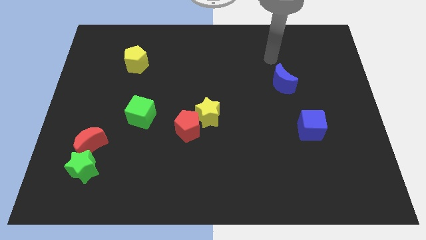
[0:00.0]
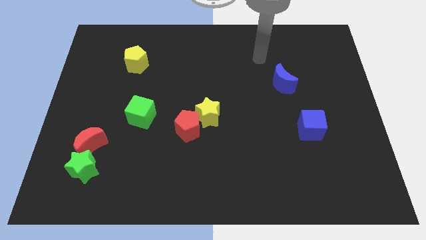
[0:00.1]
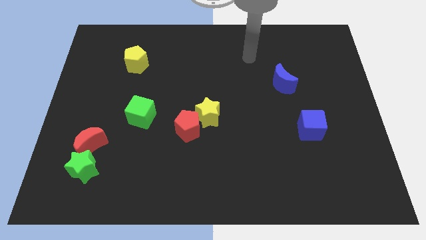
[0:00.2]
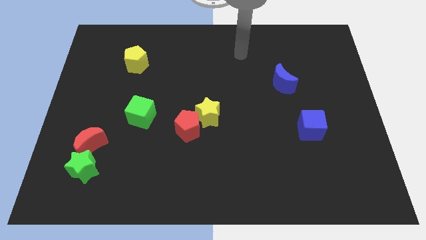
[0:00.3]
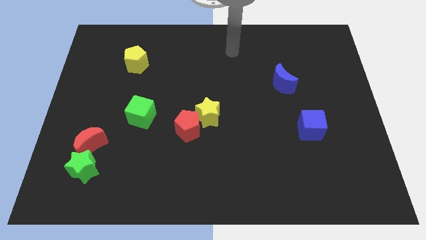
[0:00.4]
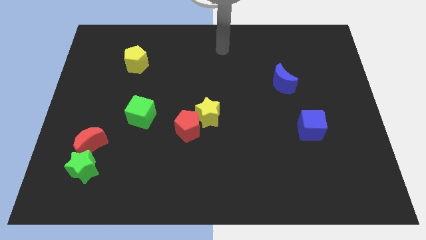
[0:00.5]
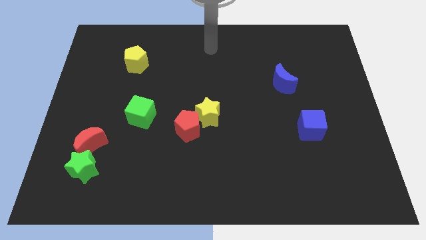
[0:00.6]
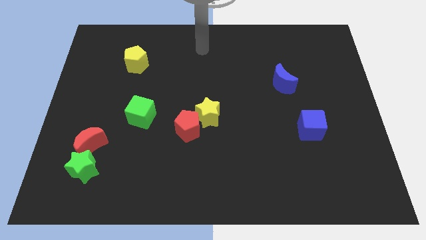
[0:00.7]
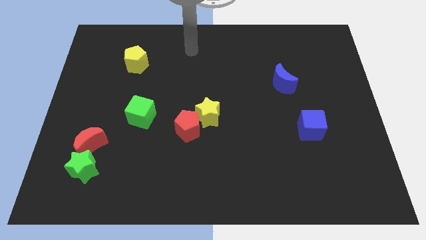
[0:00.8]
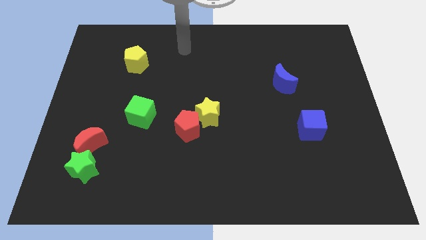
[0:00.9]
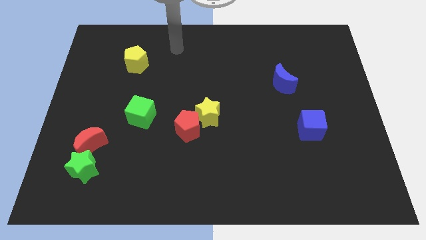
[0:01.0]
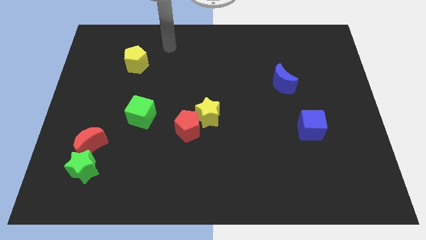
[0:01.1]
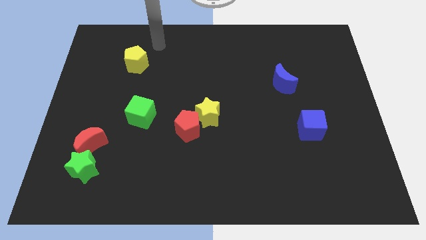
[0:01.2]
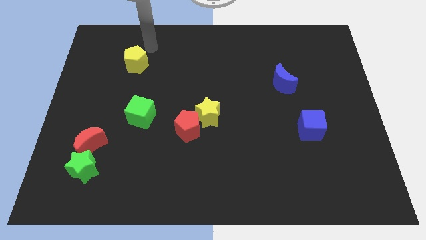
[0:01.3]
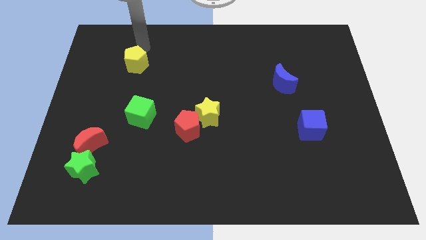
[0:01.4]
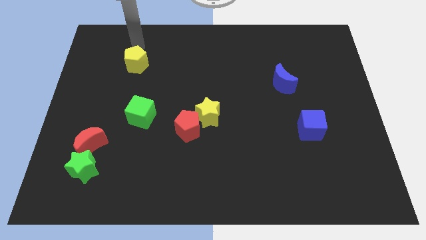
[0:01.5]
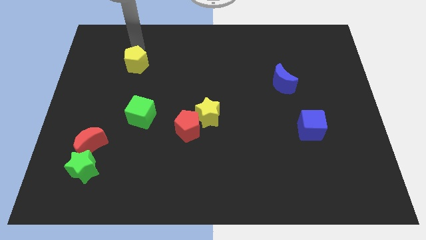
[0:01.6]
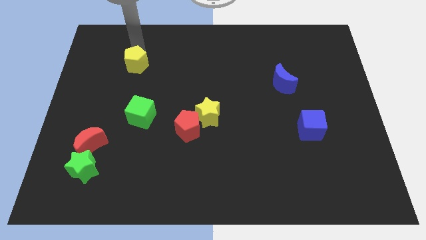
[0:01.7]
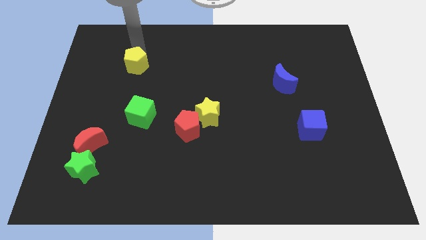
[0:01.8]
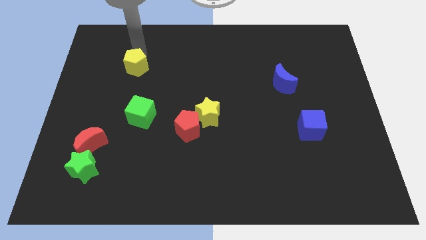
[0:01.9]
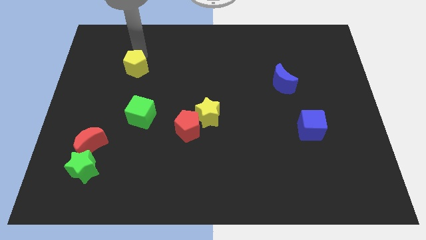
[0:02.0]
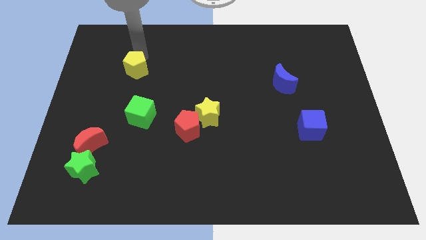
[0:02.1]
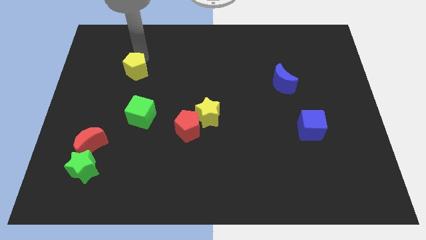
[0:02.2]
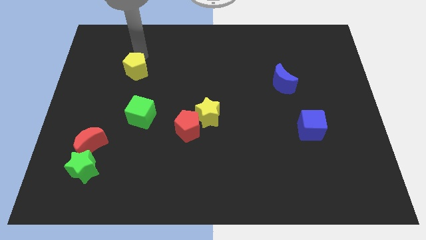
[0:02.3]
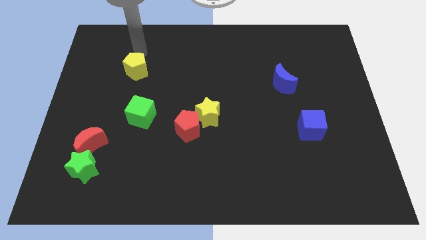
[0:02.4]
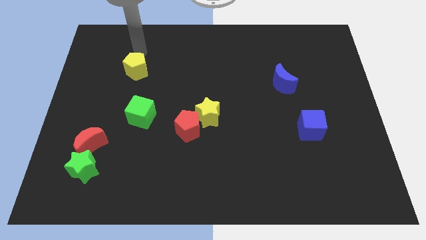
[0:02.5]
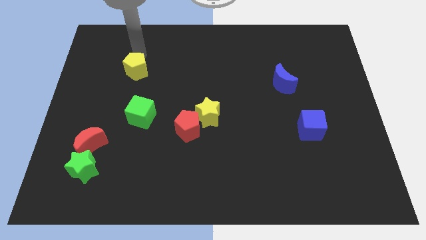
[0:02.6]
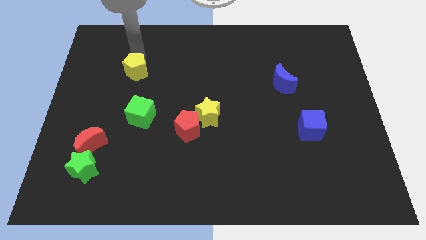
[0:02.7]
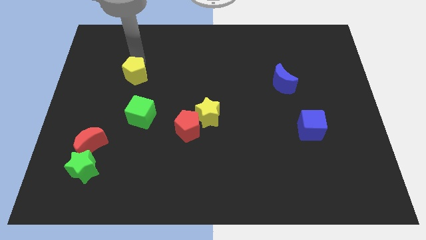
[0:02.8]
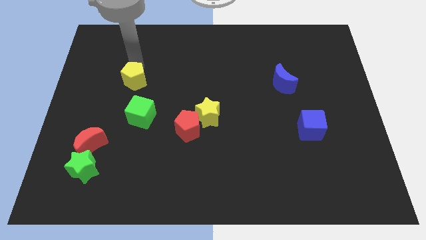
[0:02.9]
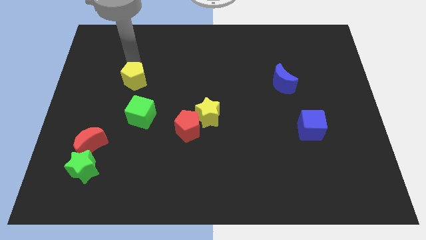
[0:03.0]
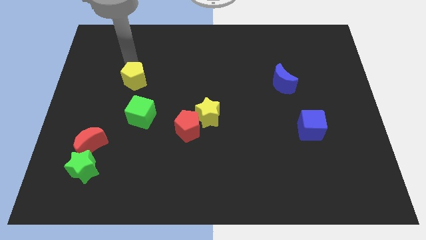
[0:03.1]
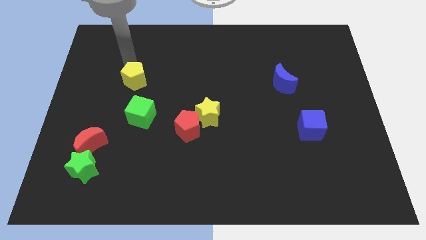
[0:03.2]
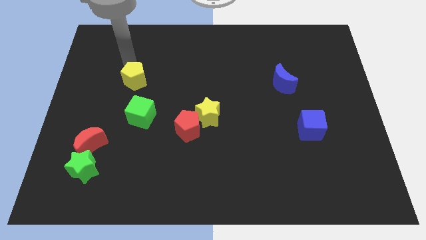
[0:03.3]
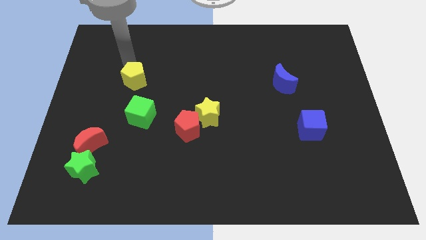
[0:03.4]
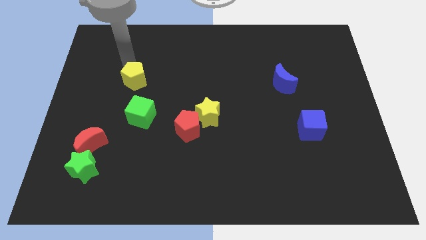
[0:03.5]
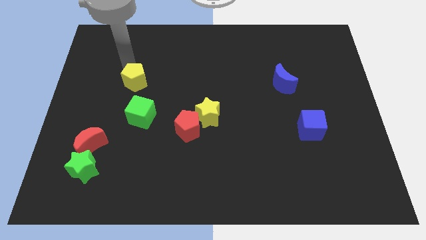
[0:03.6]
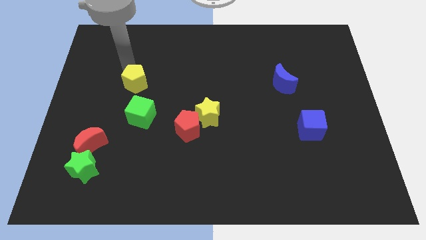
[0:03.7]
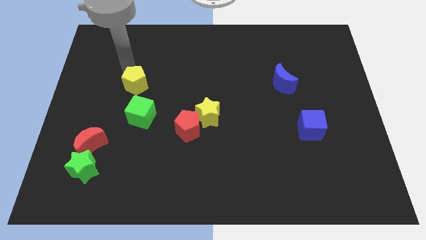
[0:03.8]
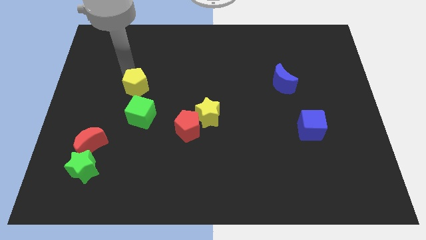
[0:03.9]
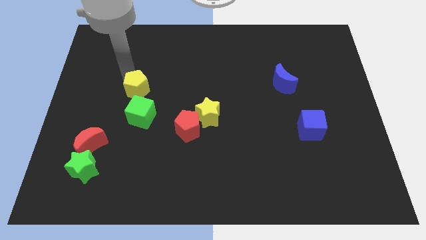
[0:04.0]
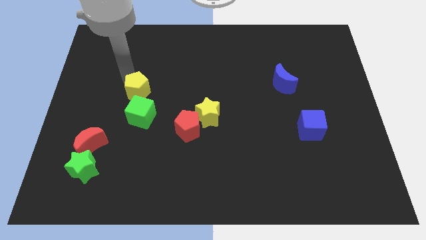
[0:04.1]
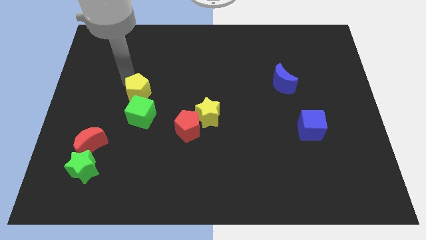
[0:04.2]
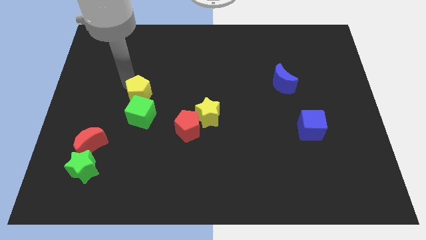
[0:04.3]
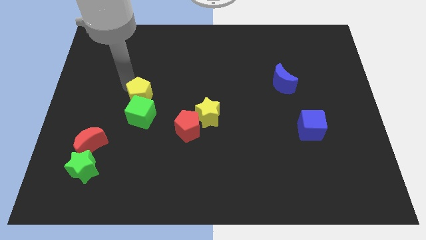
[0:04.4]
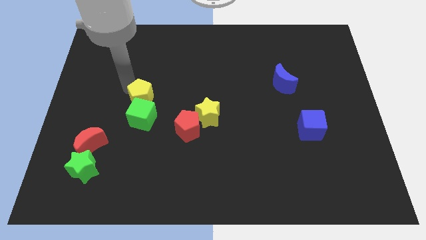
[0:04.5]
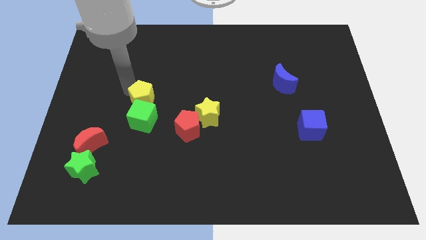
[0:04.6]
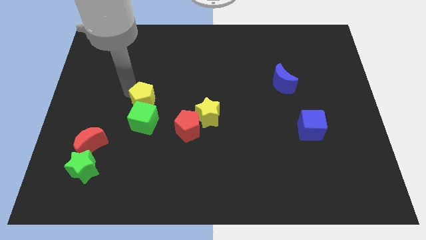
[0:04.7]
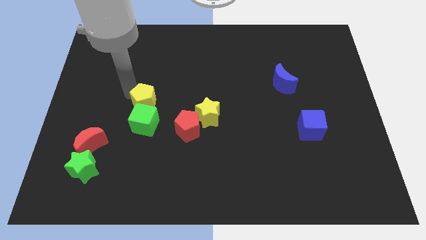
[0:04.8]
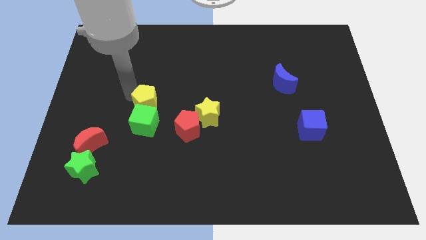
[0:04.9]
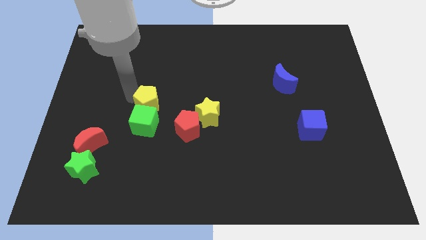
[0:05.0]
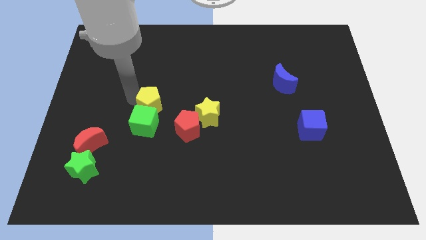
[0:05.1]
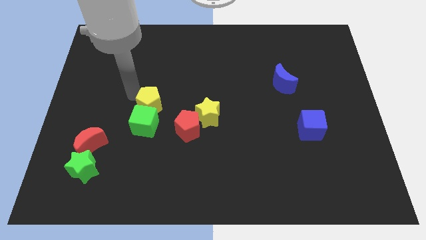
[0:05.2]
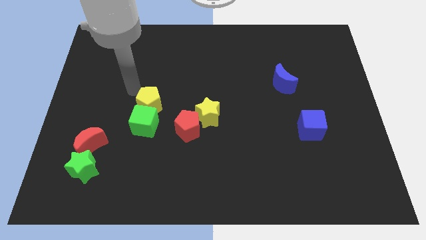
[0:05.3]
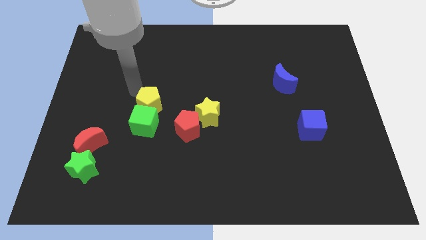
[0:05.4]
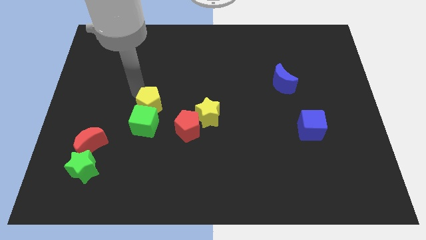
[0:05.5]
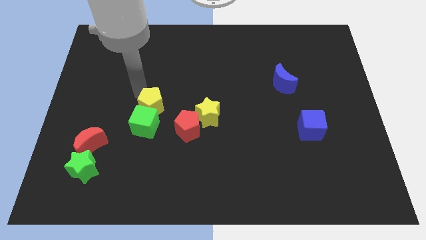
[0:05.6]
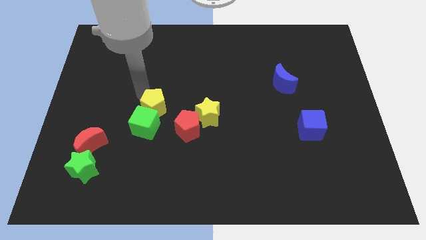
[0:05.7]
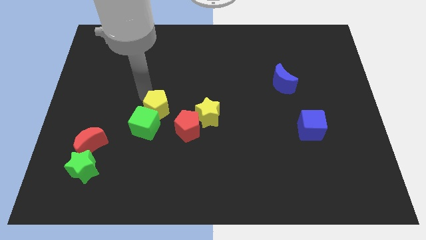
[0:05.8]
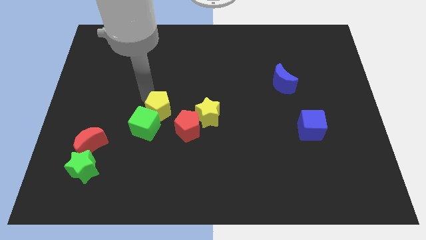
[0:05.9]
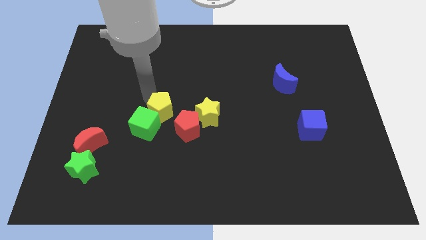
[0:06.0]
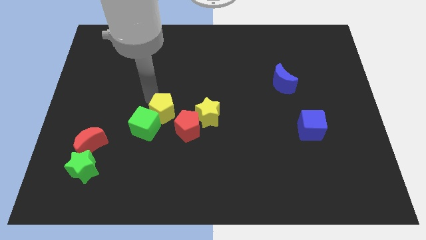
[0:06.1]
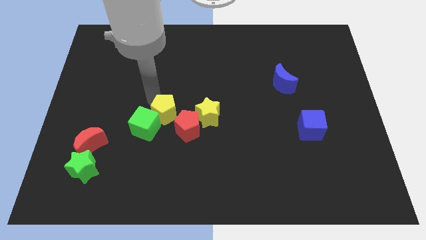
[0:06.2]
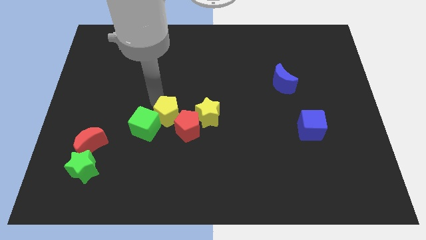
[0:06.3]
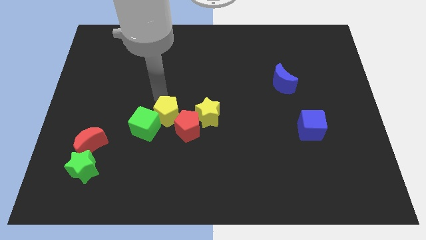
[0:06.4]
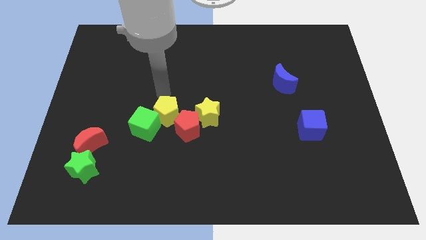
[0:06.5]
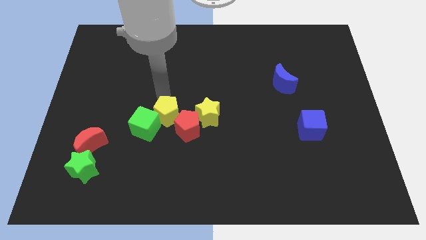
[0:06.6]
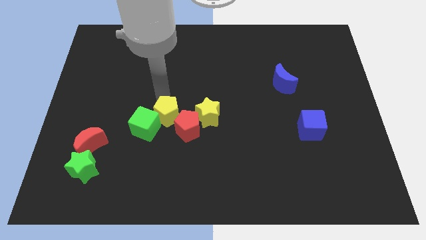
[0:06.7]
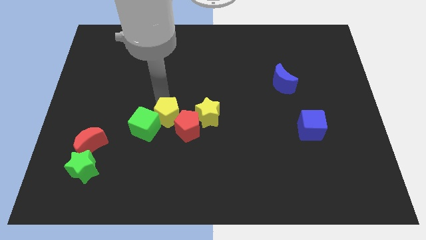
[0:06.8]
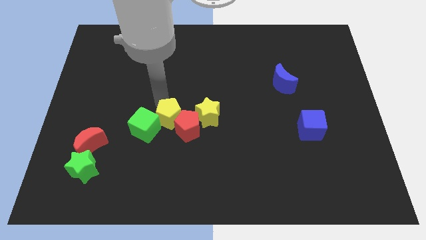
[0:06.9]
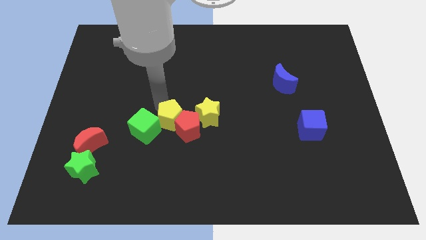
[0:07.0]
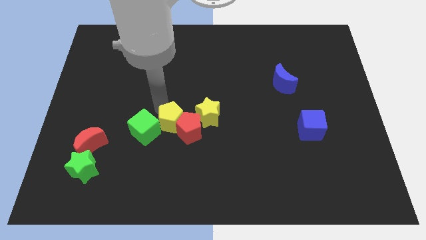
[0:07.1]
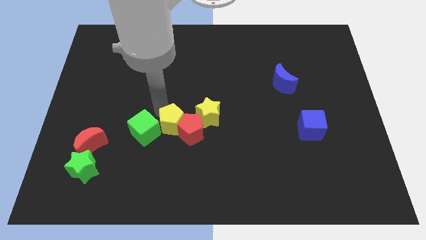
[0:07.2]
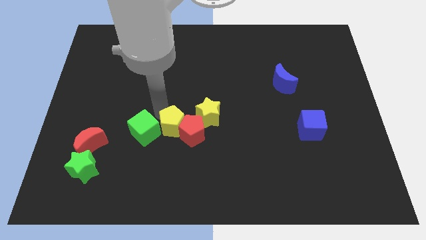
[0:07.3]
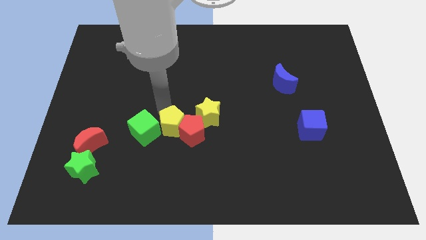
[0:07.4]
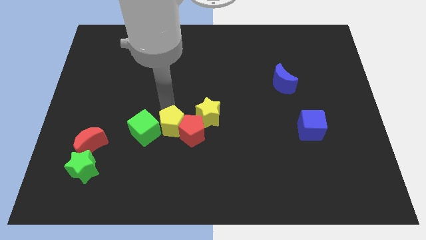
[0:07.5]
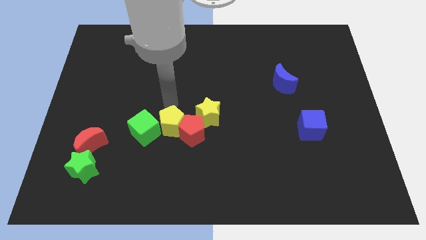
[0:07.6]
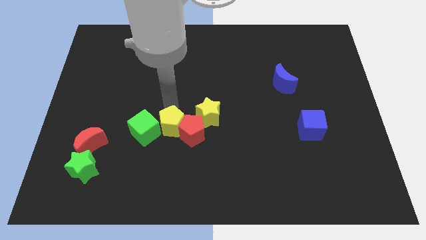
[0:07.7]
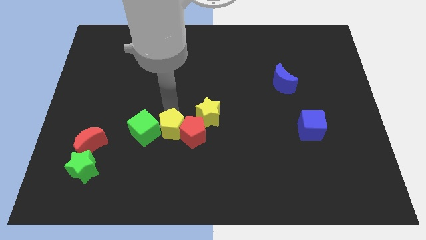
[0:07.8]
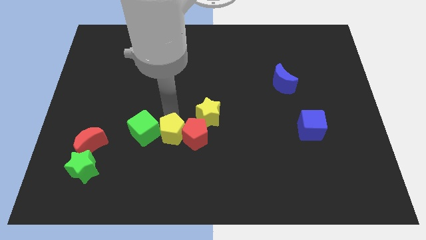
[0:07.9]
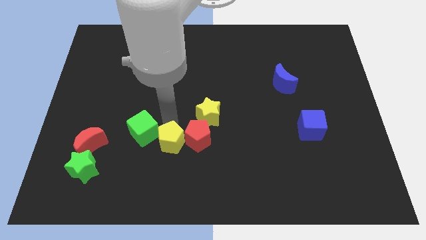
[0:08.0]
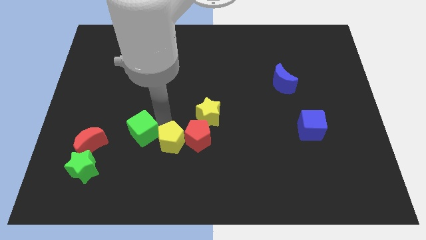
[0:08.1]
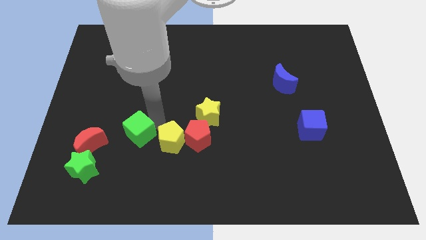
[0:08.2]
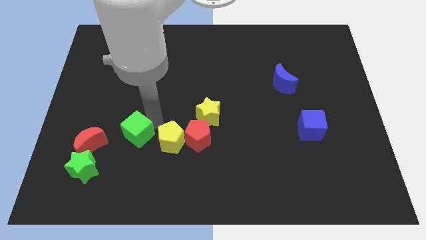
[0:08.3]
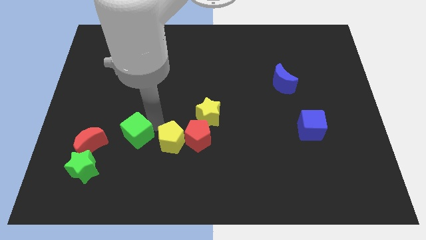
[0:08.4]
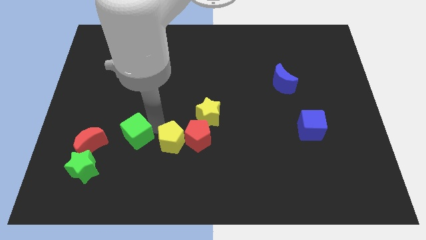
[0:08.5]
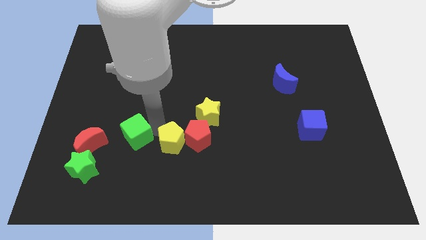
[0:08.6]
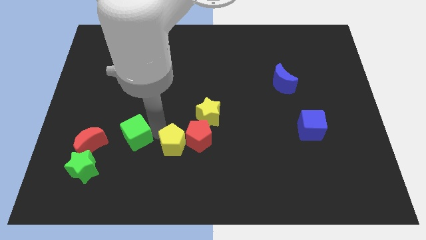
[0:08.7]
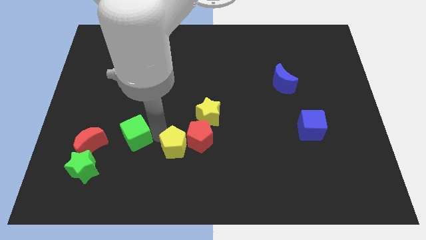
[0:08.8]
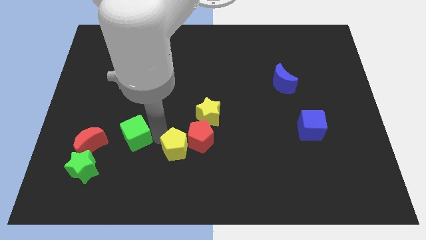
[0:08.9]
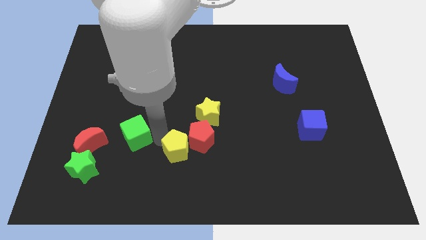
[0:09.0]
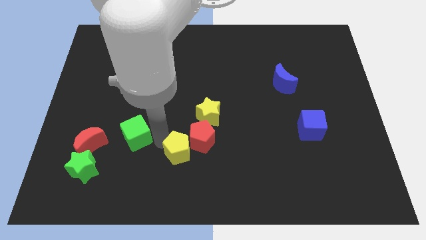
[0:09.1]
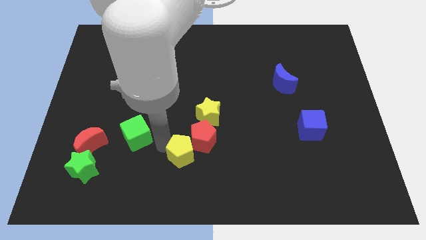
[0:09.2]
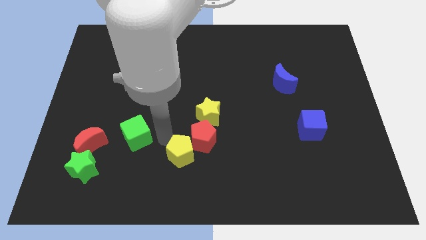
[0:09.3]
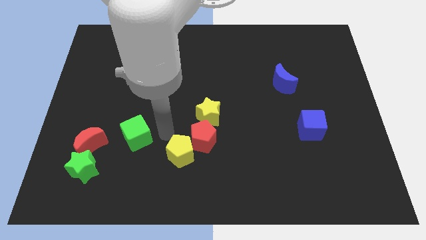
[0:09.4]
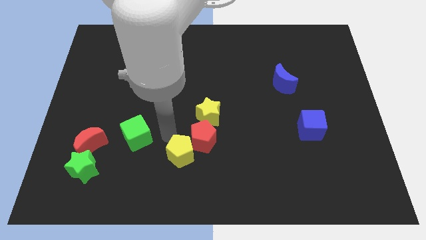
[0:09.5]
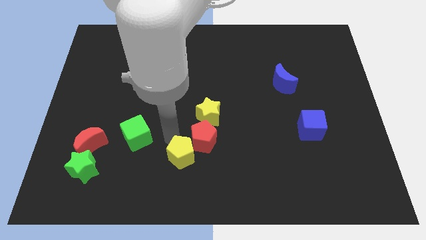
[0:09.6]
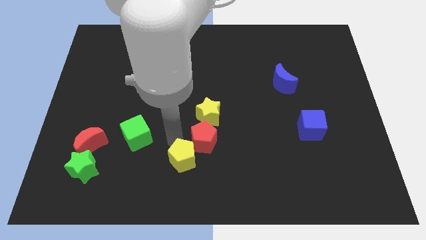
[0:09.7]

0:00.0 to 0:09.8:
slide the yellow pentagon to the bottom
